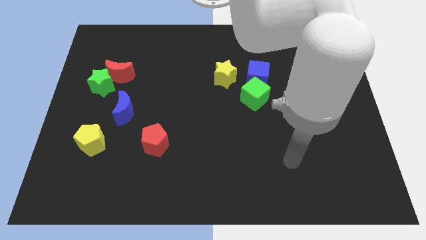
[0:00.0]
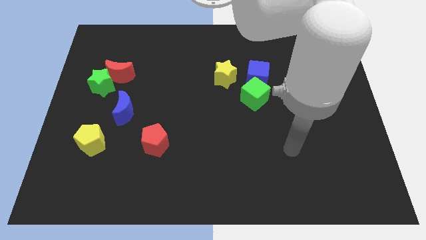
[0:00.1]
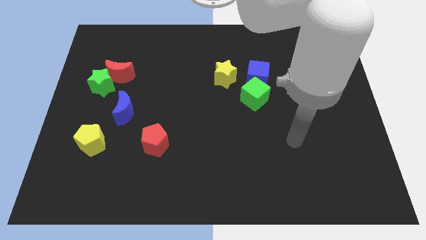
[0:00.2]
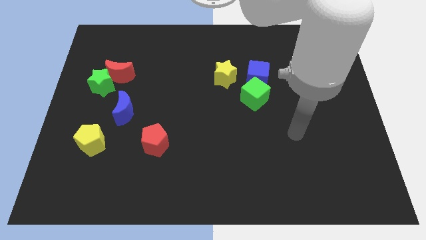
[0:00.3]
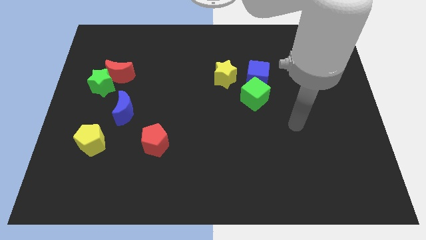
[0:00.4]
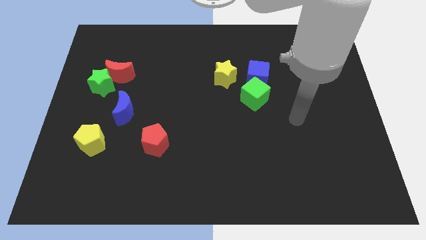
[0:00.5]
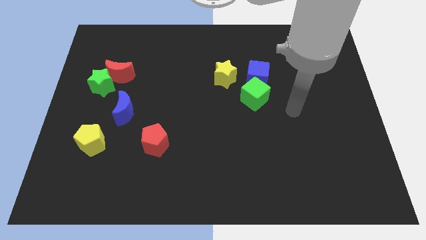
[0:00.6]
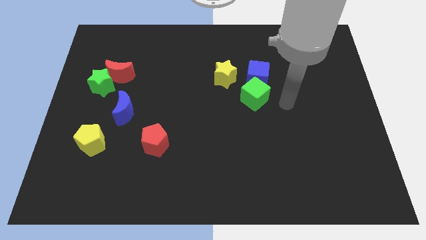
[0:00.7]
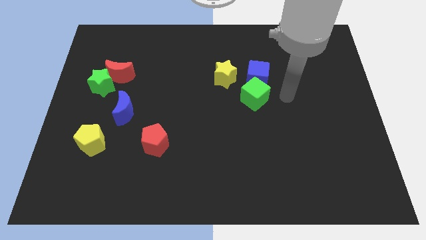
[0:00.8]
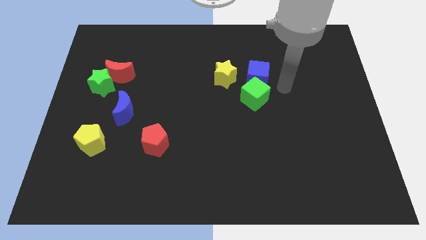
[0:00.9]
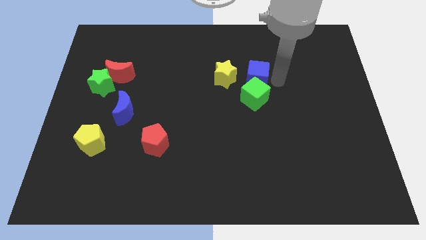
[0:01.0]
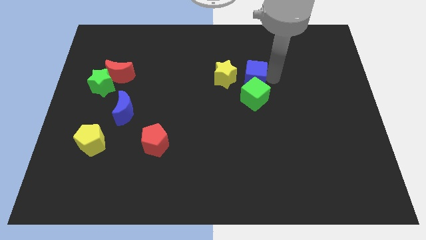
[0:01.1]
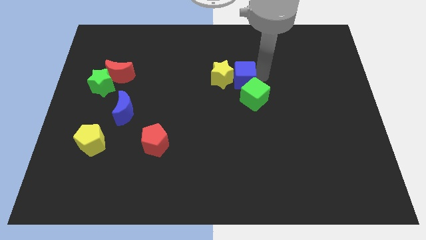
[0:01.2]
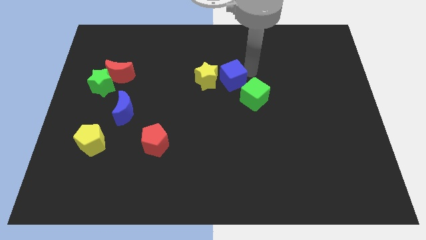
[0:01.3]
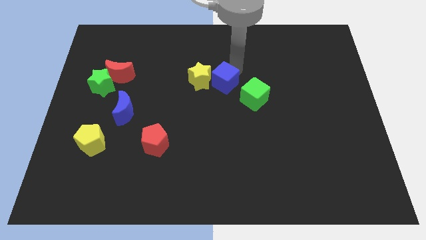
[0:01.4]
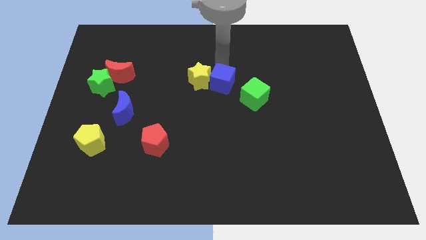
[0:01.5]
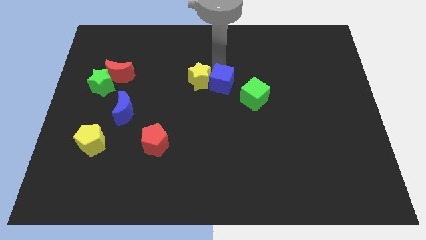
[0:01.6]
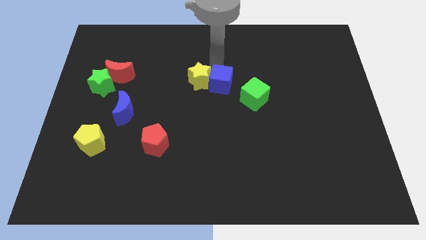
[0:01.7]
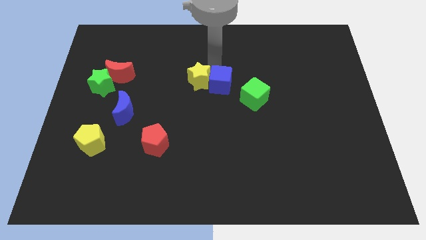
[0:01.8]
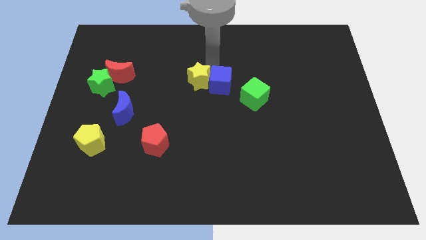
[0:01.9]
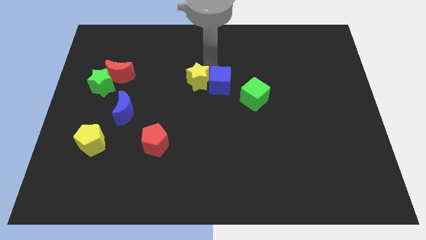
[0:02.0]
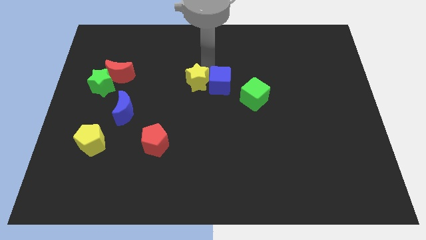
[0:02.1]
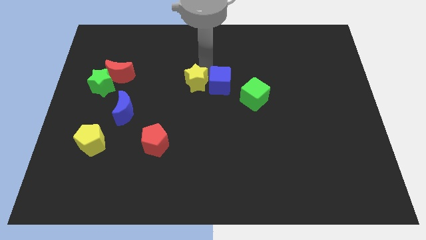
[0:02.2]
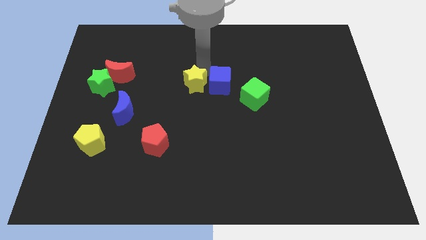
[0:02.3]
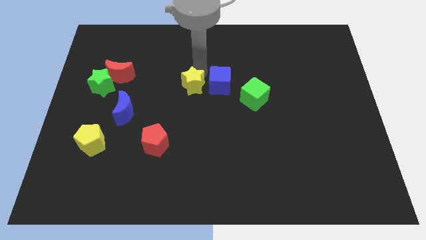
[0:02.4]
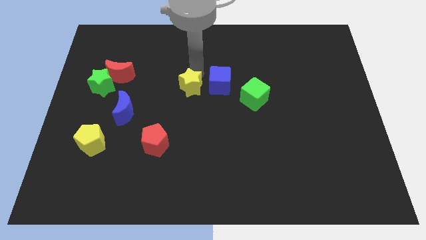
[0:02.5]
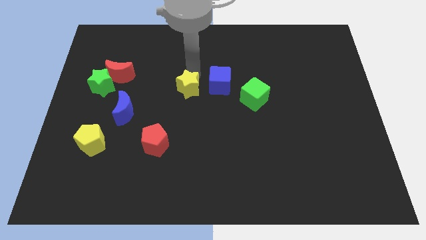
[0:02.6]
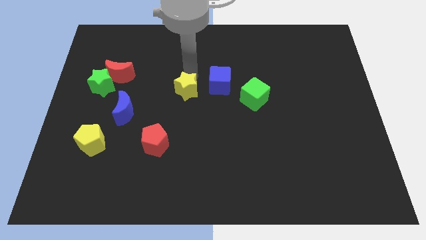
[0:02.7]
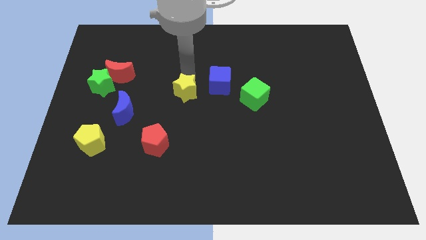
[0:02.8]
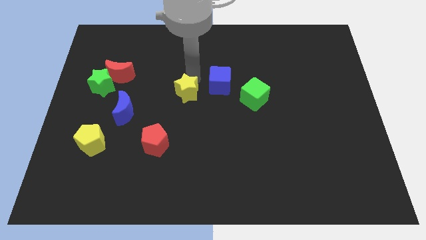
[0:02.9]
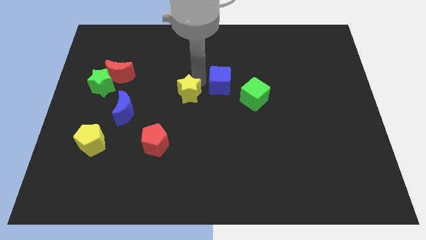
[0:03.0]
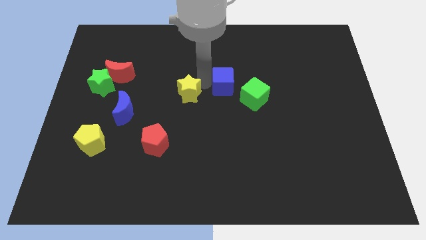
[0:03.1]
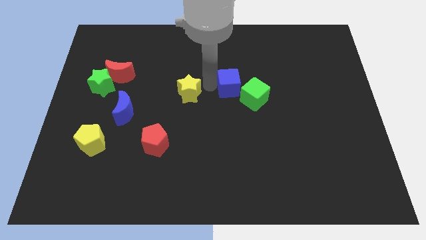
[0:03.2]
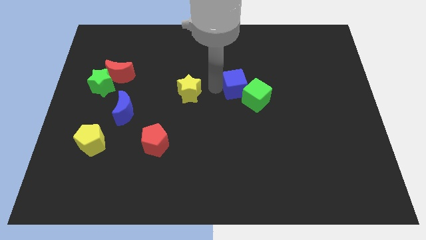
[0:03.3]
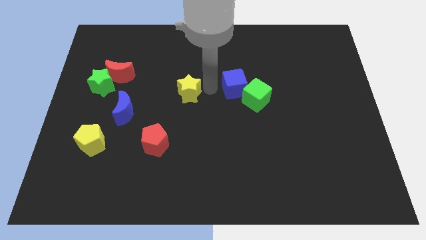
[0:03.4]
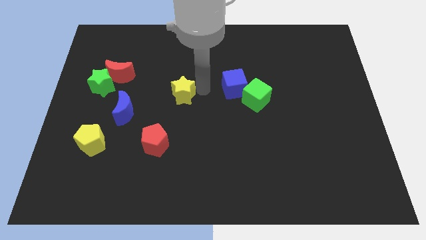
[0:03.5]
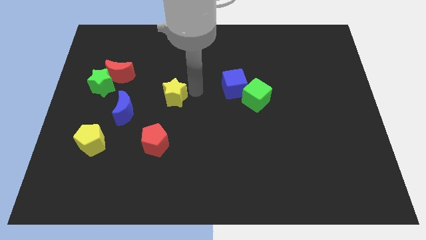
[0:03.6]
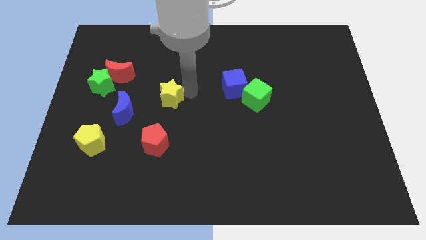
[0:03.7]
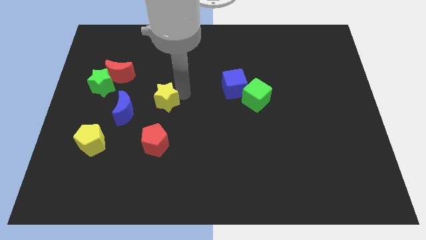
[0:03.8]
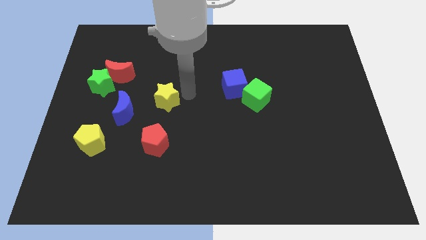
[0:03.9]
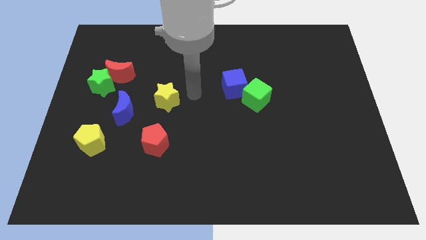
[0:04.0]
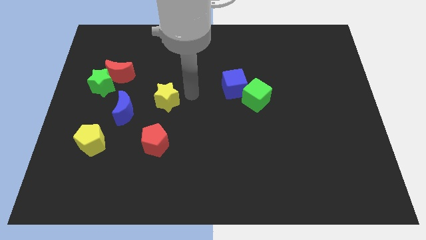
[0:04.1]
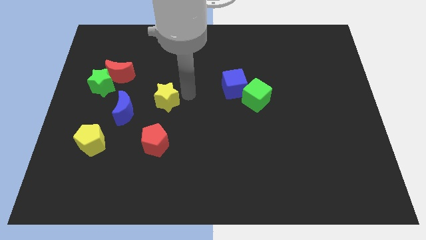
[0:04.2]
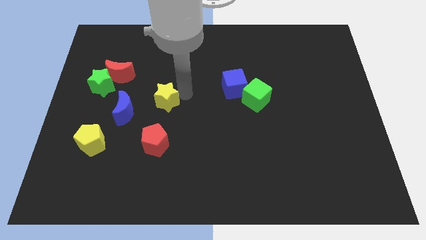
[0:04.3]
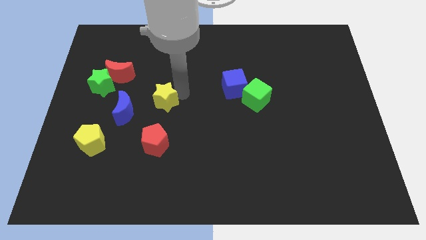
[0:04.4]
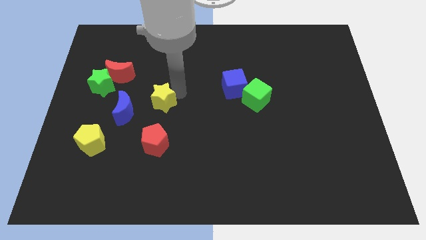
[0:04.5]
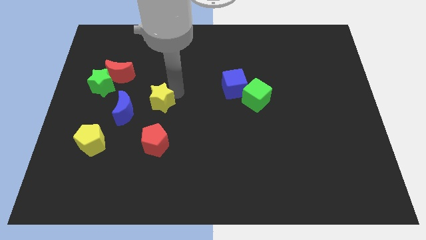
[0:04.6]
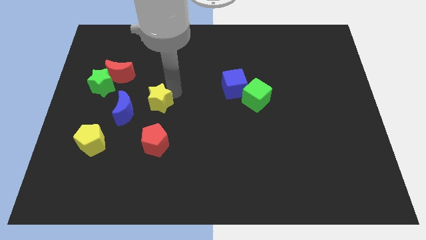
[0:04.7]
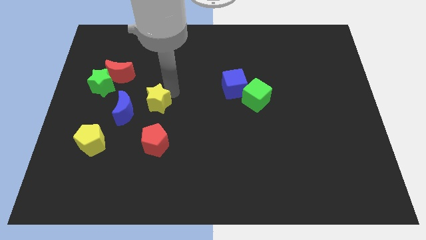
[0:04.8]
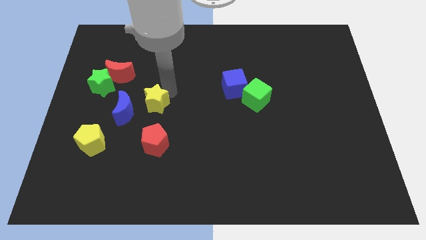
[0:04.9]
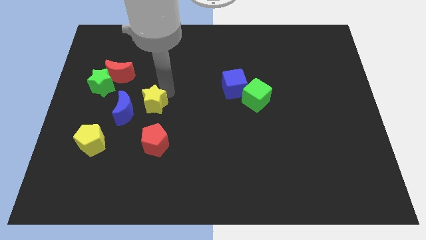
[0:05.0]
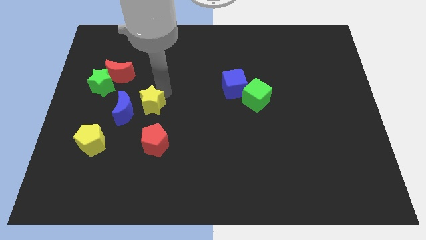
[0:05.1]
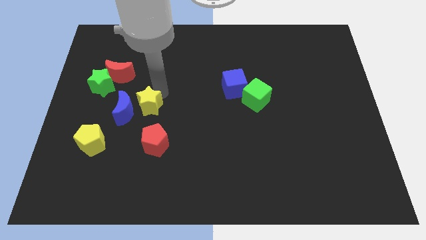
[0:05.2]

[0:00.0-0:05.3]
put the yellow star to the blue moon

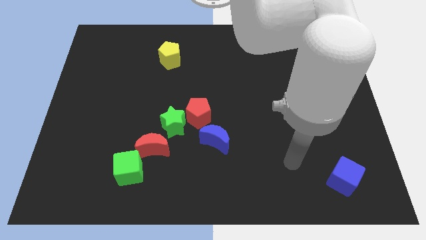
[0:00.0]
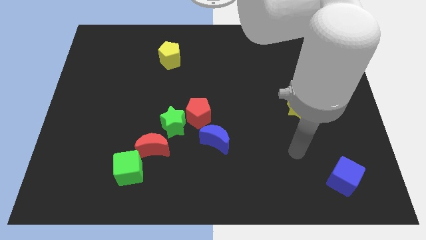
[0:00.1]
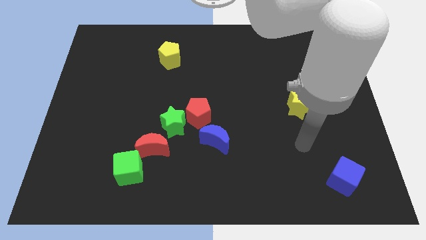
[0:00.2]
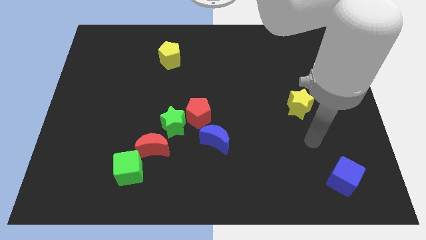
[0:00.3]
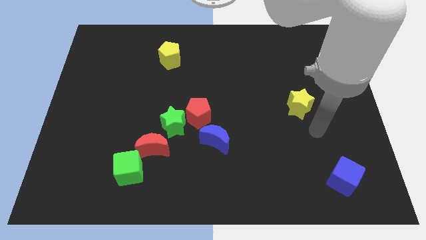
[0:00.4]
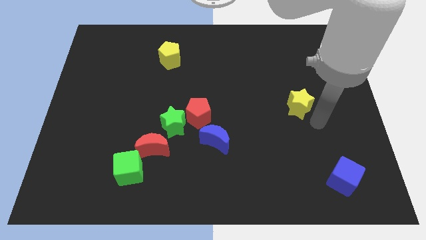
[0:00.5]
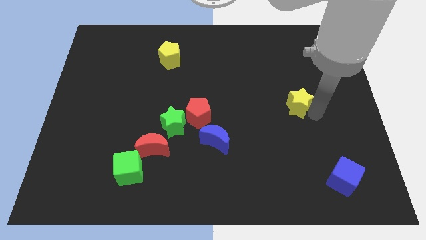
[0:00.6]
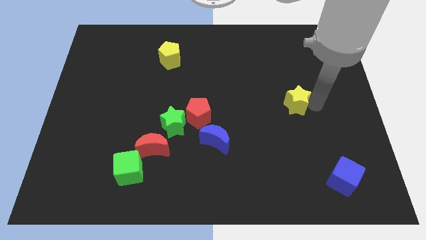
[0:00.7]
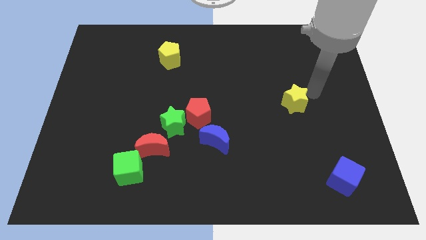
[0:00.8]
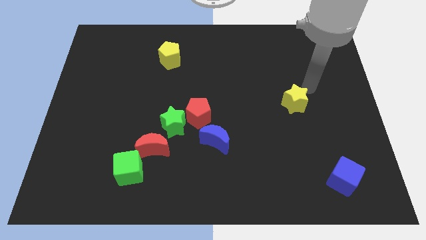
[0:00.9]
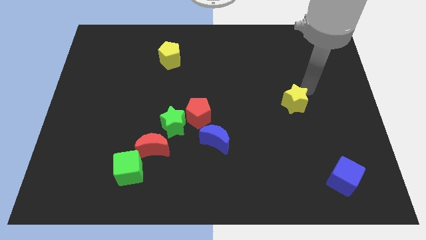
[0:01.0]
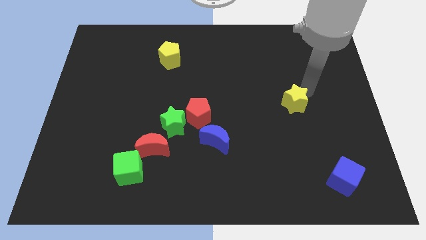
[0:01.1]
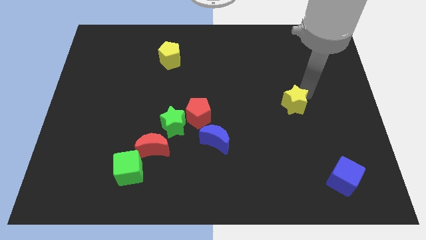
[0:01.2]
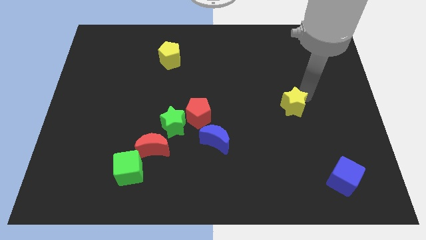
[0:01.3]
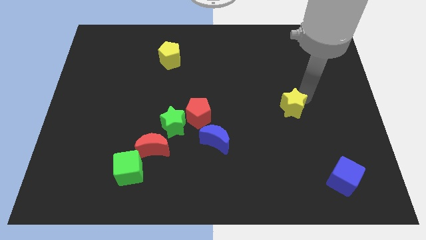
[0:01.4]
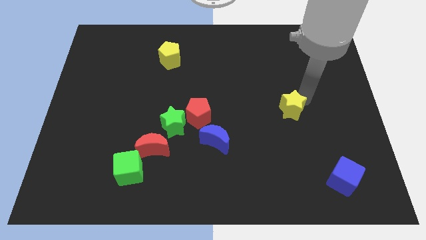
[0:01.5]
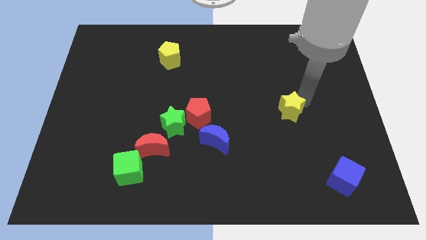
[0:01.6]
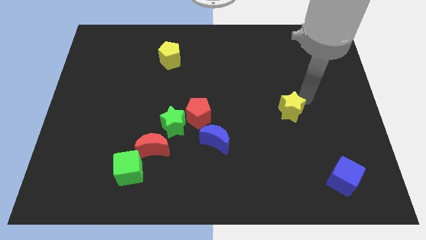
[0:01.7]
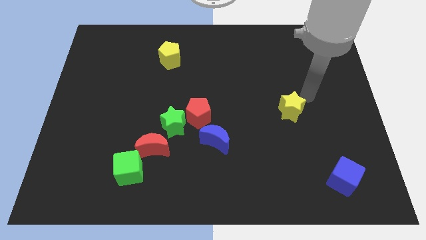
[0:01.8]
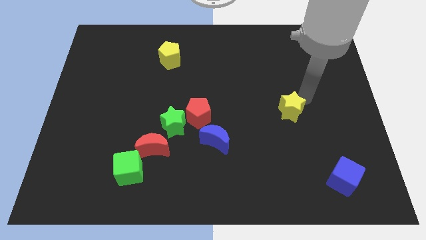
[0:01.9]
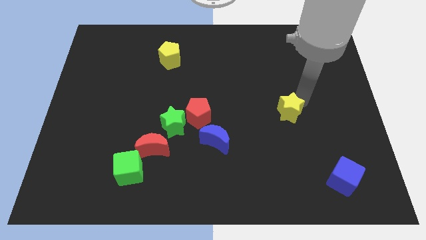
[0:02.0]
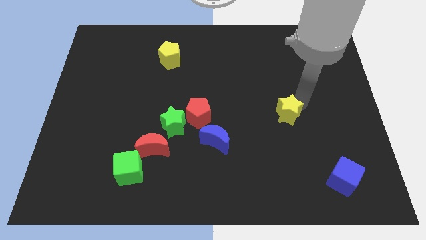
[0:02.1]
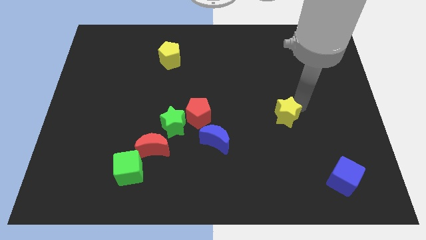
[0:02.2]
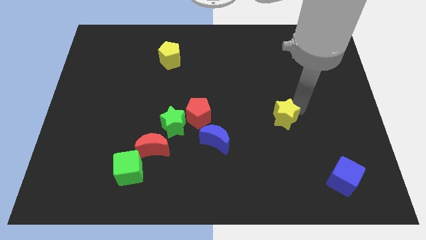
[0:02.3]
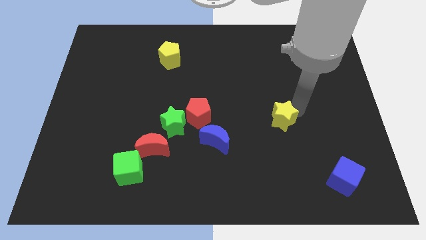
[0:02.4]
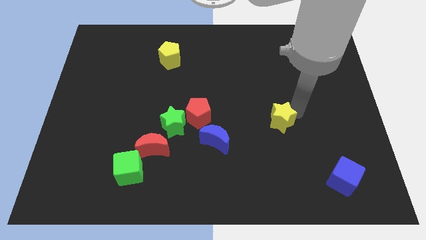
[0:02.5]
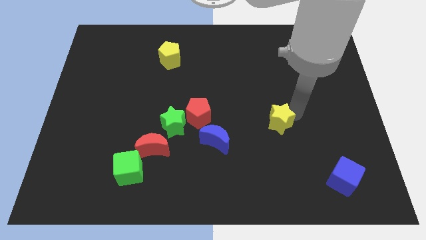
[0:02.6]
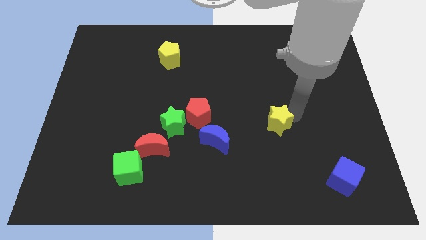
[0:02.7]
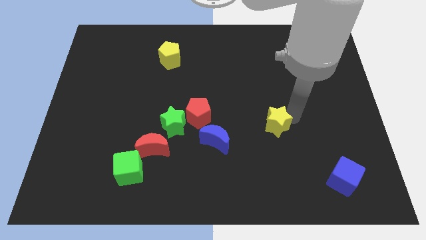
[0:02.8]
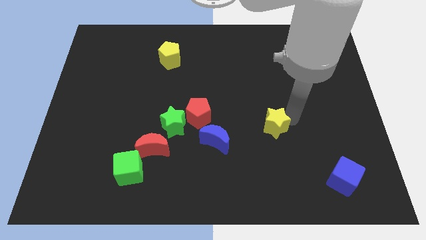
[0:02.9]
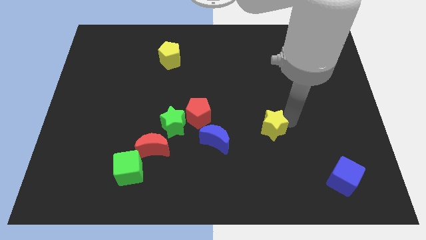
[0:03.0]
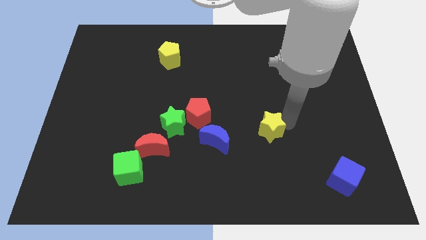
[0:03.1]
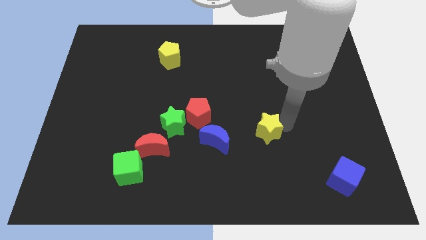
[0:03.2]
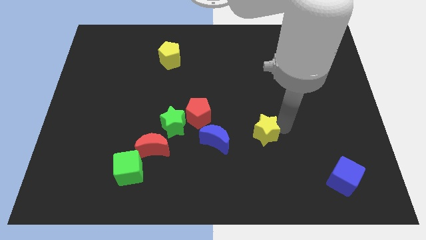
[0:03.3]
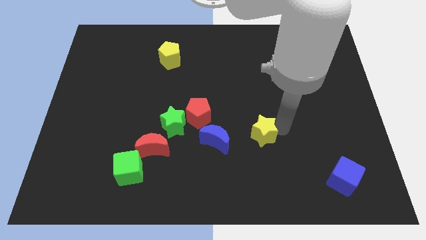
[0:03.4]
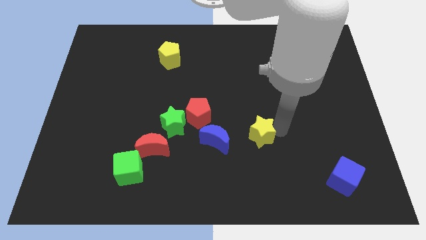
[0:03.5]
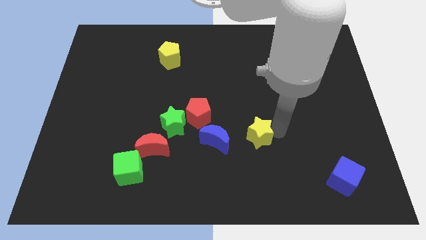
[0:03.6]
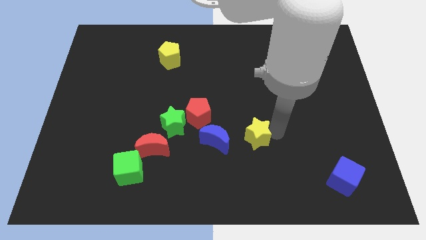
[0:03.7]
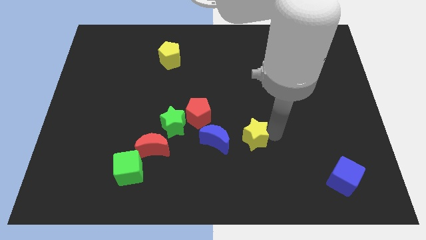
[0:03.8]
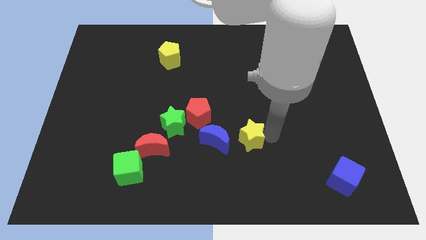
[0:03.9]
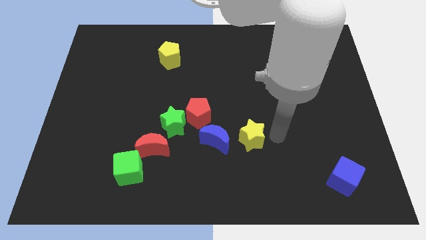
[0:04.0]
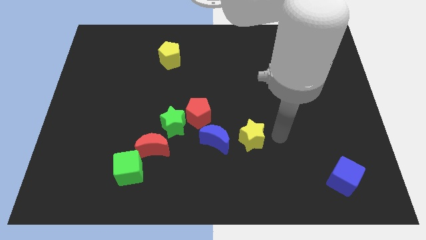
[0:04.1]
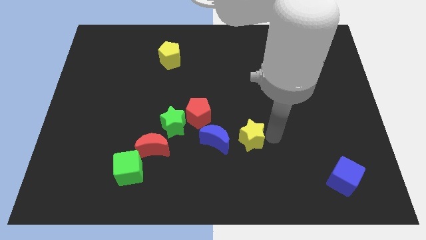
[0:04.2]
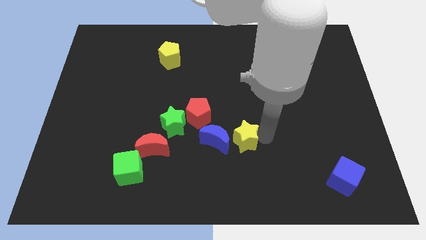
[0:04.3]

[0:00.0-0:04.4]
put the yellow star next to the blue moon
